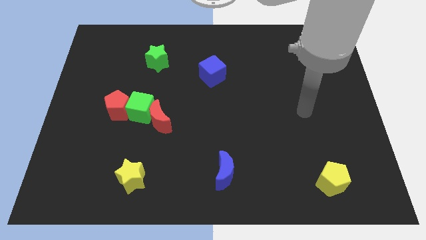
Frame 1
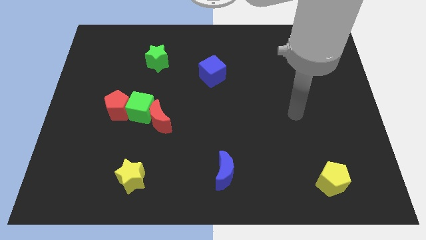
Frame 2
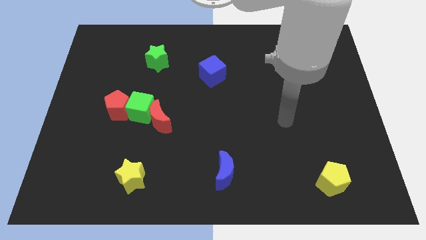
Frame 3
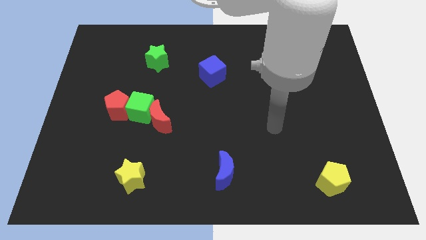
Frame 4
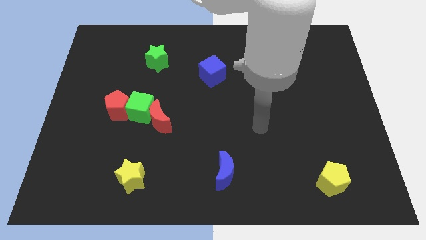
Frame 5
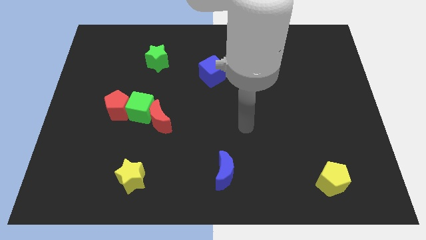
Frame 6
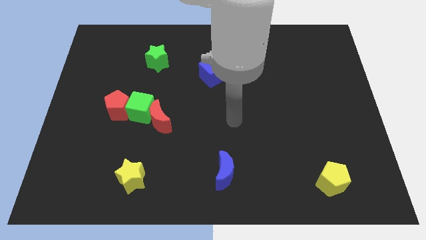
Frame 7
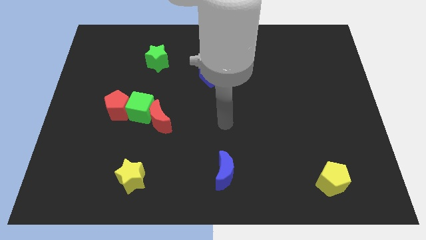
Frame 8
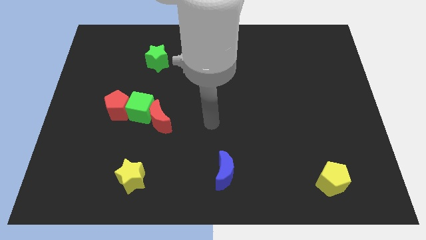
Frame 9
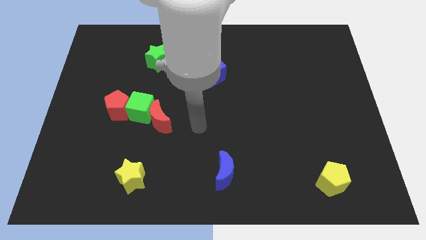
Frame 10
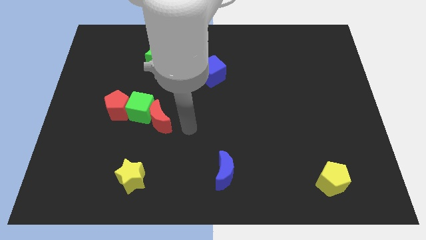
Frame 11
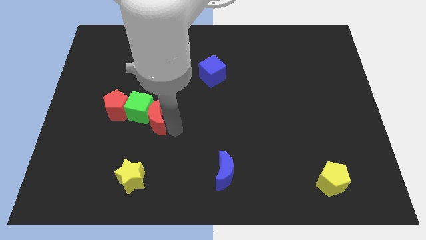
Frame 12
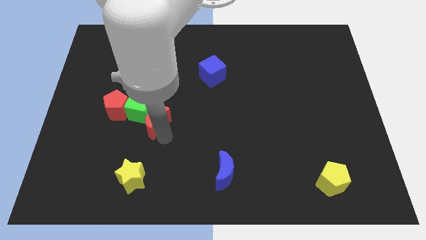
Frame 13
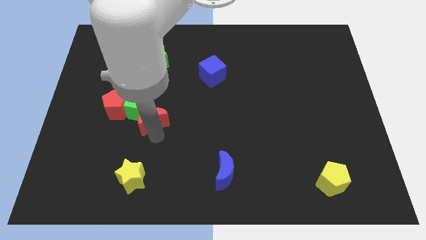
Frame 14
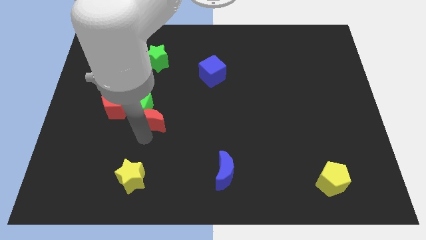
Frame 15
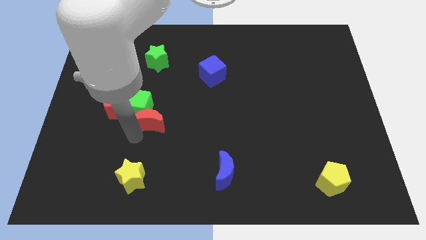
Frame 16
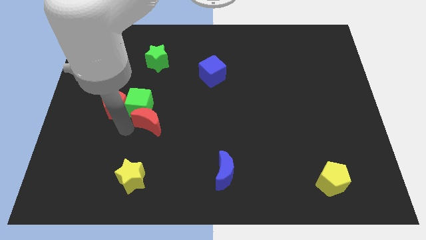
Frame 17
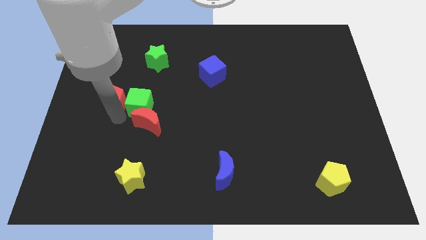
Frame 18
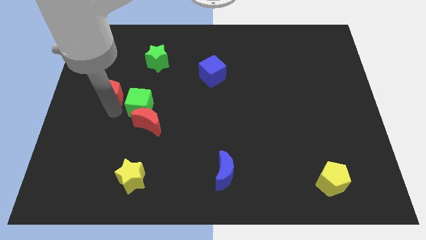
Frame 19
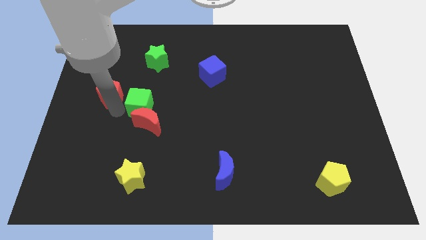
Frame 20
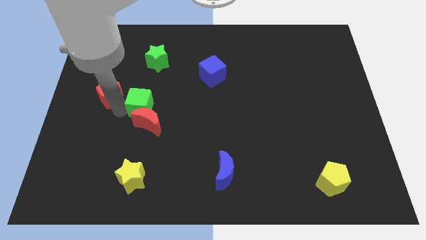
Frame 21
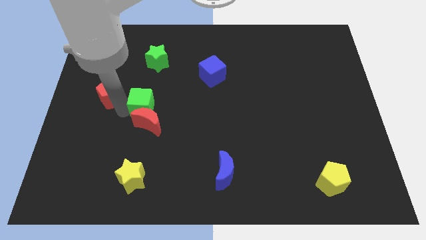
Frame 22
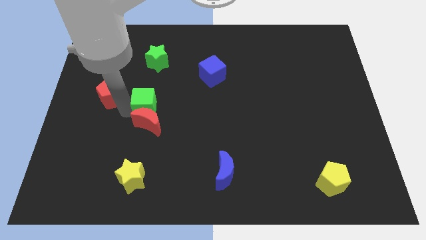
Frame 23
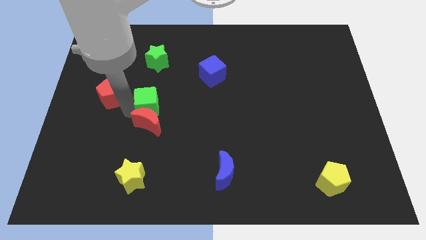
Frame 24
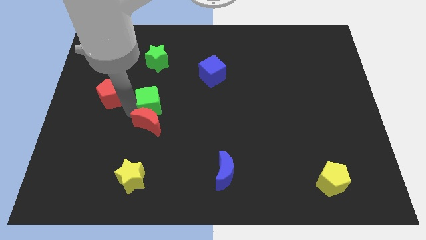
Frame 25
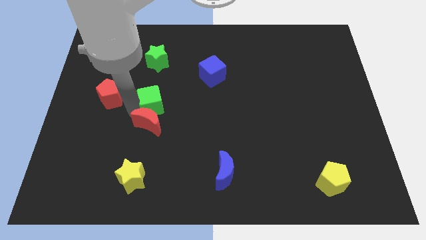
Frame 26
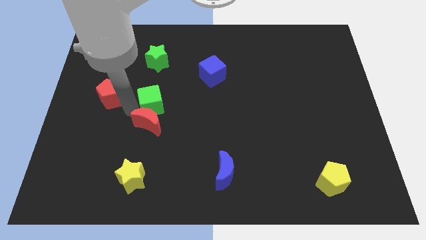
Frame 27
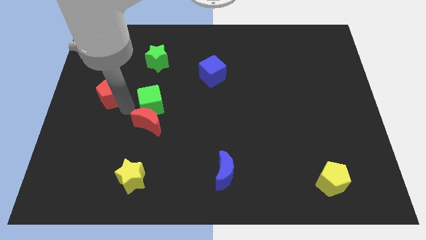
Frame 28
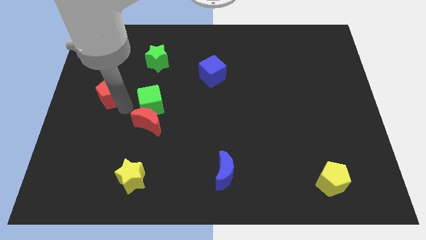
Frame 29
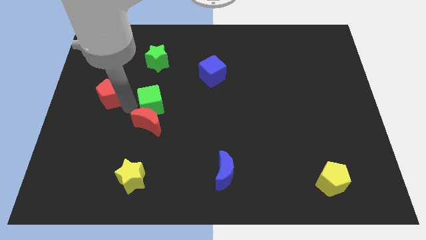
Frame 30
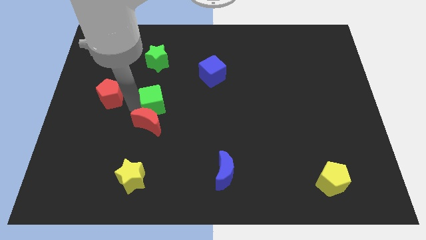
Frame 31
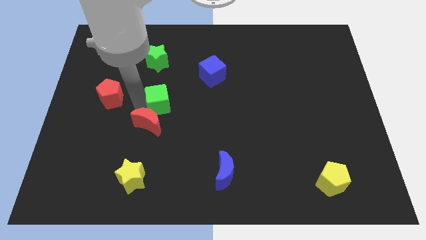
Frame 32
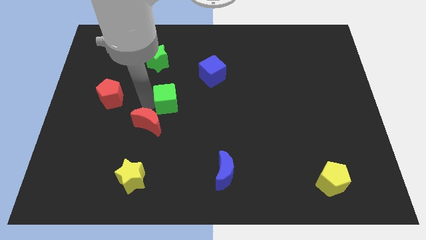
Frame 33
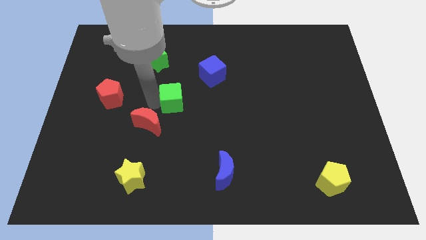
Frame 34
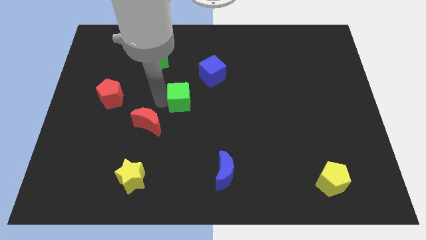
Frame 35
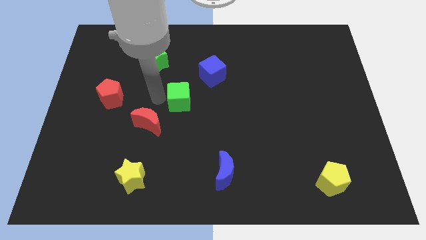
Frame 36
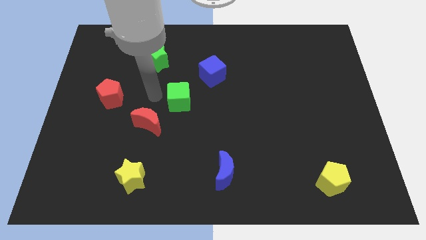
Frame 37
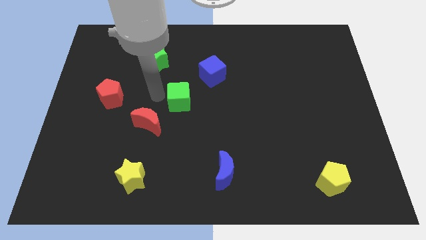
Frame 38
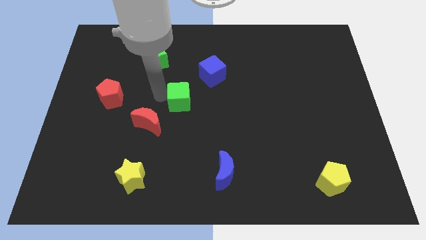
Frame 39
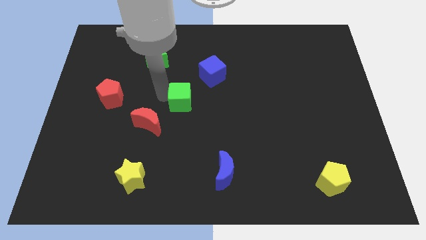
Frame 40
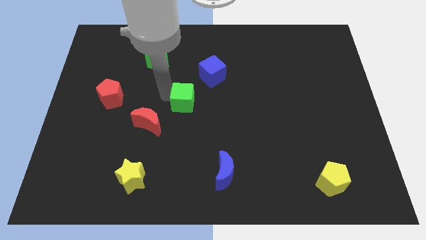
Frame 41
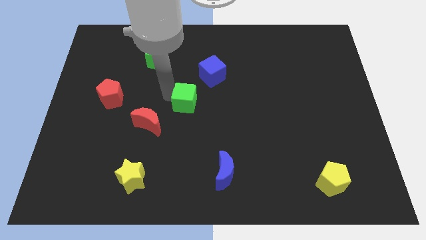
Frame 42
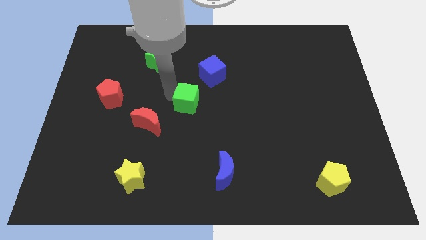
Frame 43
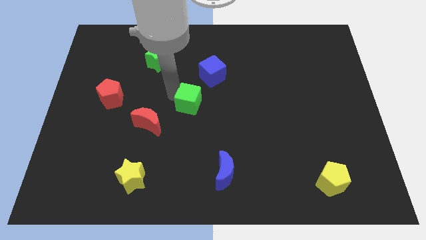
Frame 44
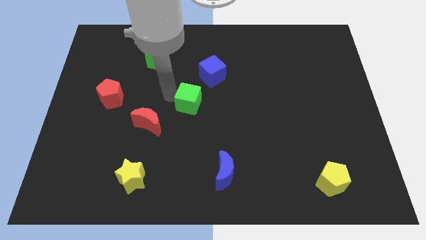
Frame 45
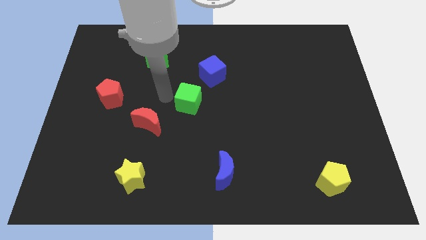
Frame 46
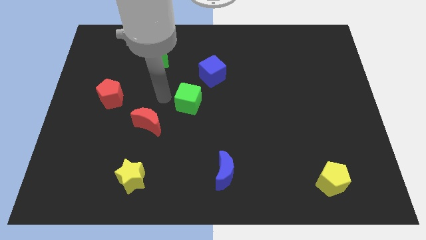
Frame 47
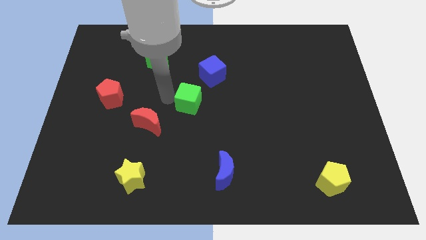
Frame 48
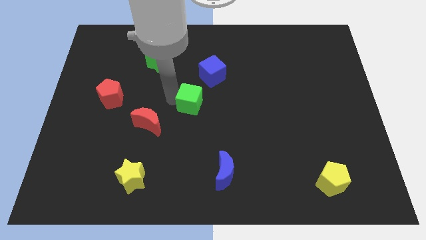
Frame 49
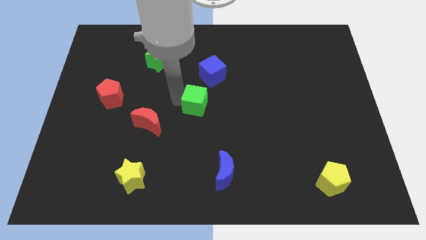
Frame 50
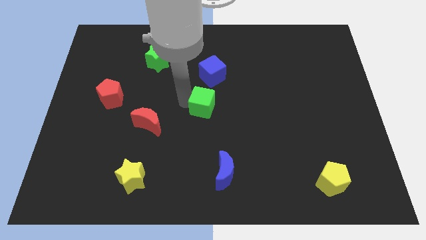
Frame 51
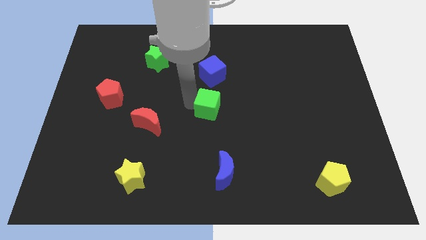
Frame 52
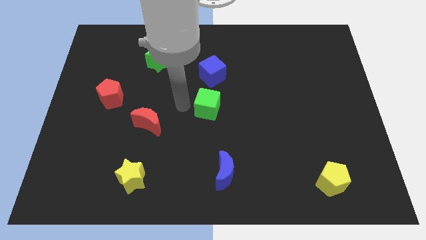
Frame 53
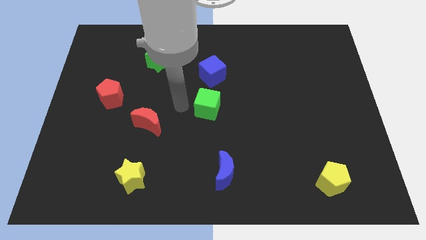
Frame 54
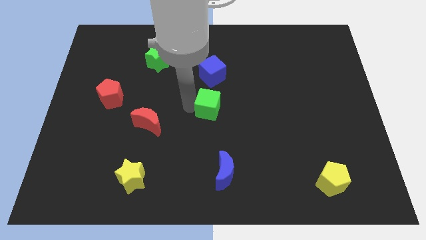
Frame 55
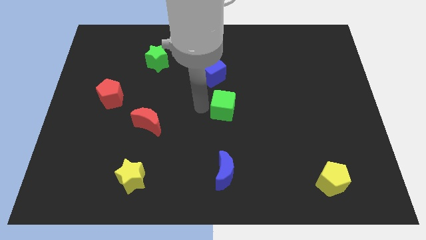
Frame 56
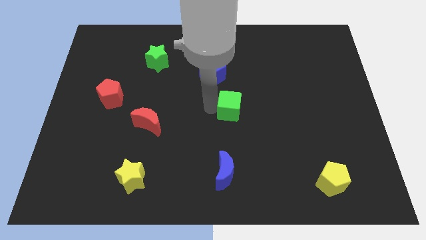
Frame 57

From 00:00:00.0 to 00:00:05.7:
slide the green cube right

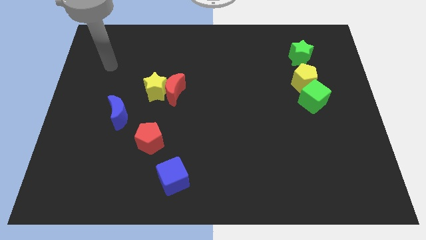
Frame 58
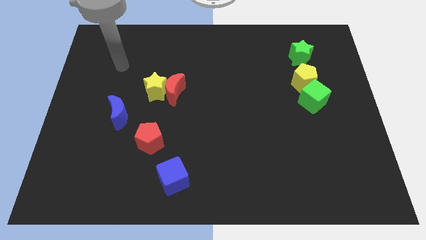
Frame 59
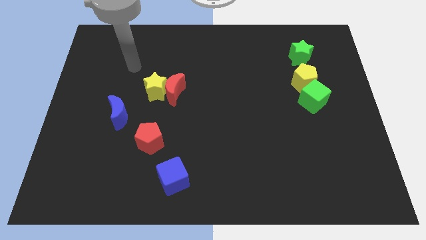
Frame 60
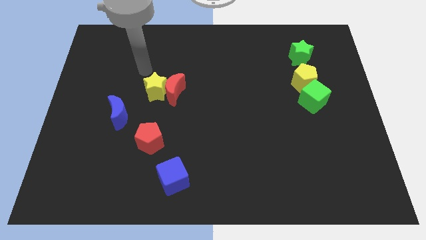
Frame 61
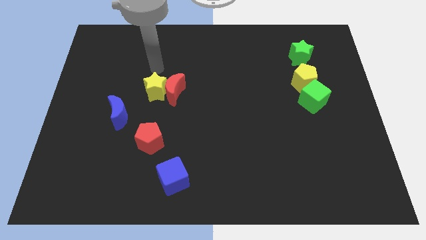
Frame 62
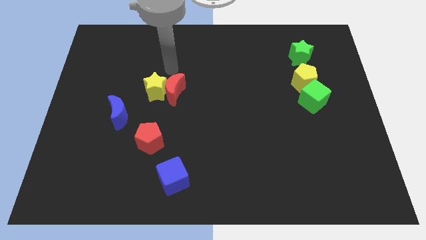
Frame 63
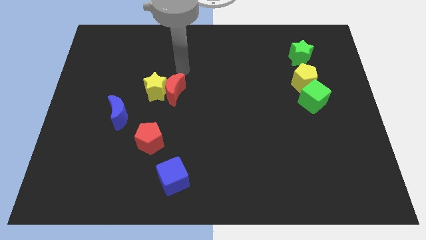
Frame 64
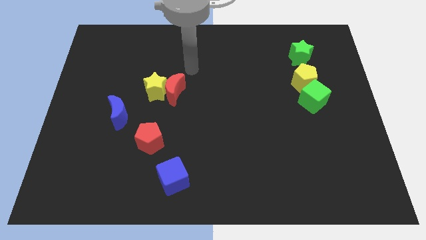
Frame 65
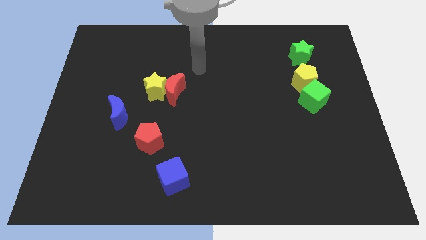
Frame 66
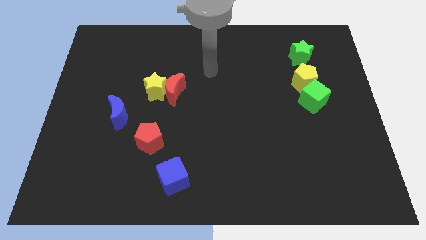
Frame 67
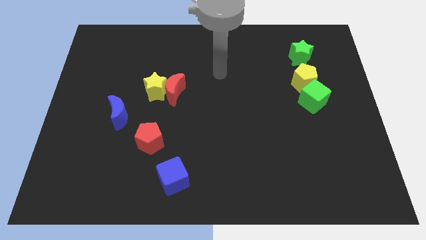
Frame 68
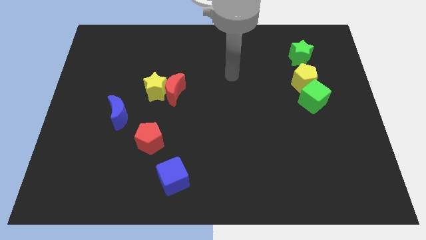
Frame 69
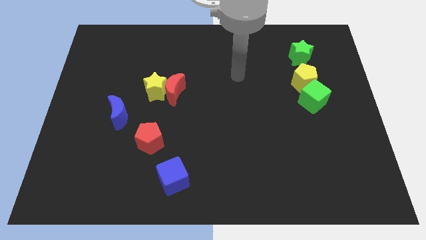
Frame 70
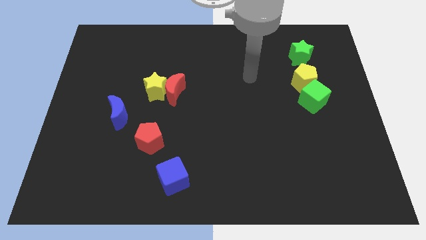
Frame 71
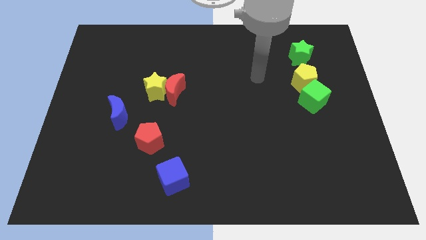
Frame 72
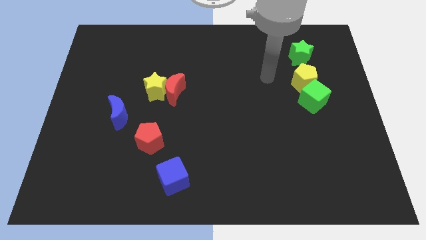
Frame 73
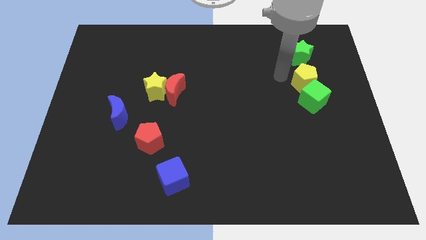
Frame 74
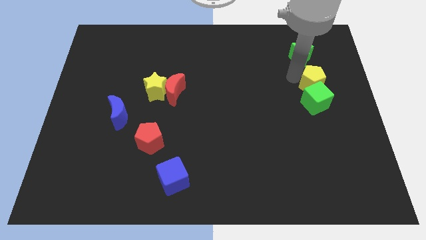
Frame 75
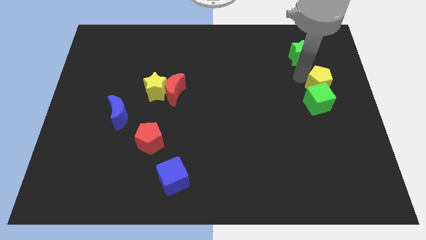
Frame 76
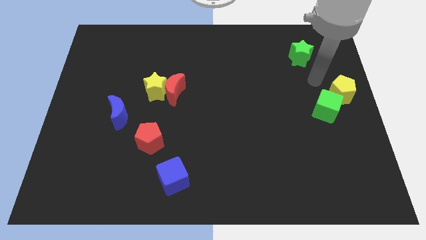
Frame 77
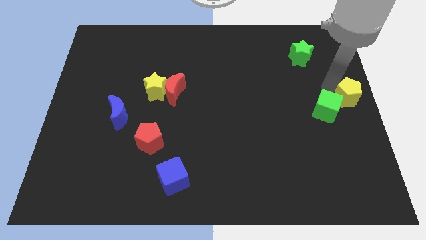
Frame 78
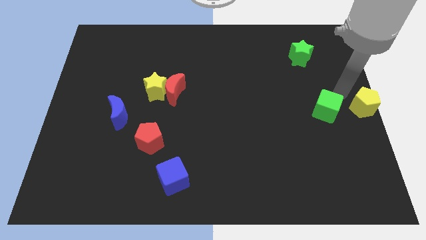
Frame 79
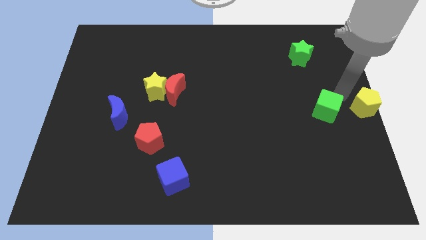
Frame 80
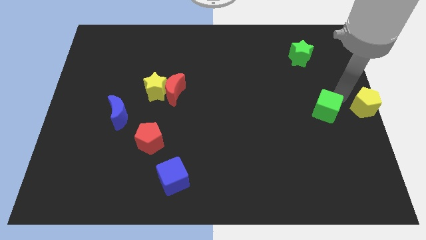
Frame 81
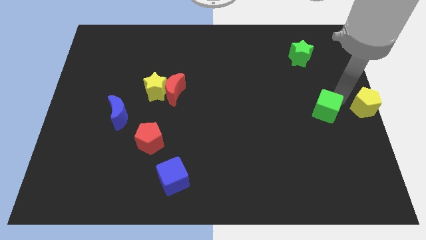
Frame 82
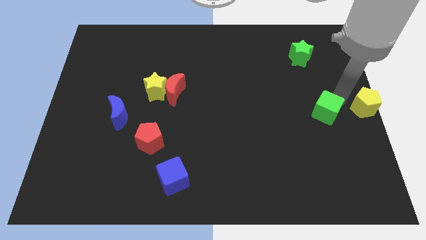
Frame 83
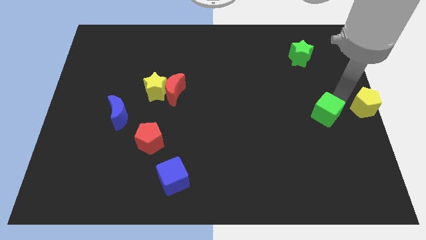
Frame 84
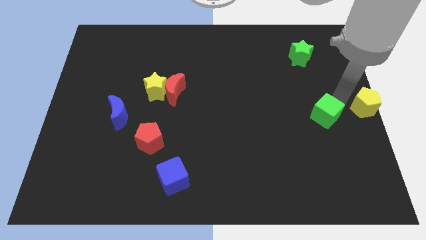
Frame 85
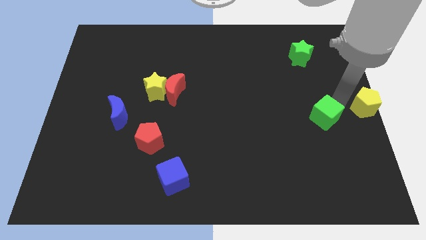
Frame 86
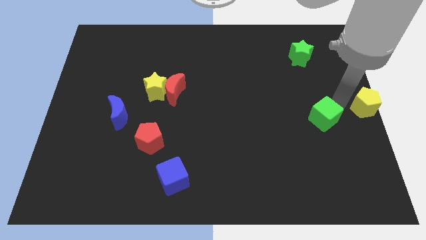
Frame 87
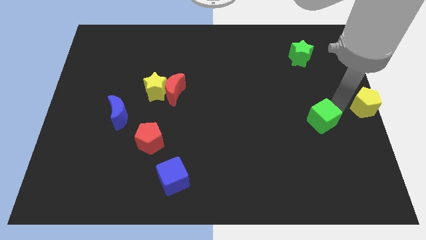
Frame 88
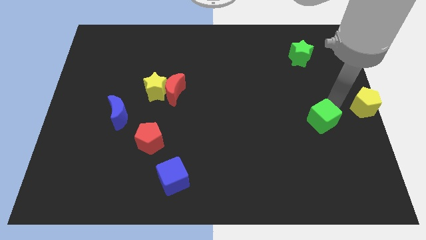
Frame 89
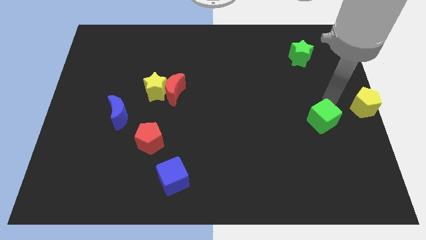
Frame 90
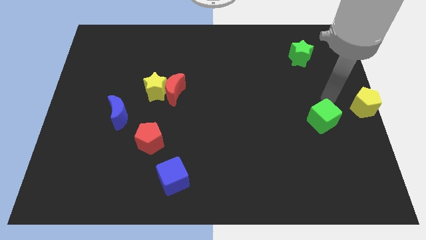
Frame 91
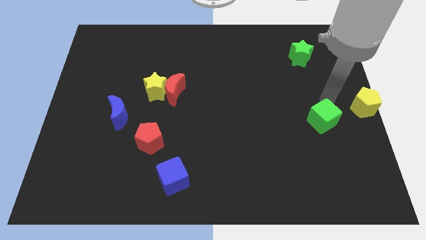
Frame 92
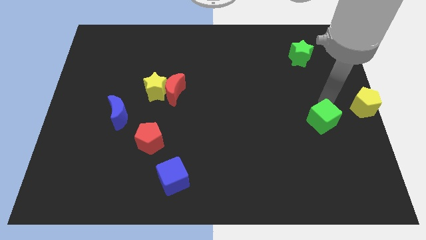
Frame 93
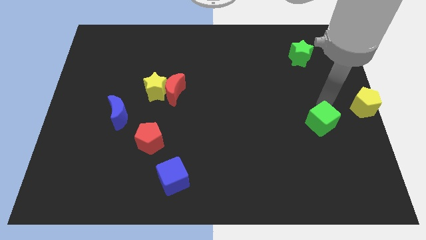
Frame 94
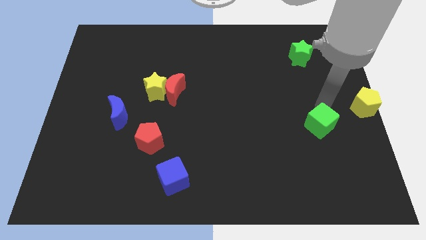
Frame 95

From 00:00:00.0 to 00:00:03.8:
push the green cube a bit downwards
